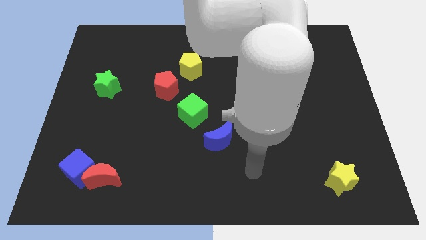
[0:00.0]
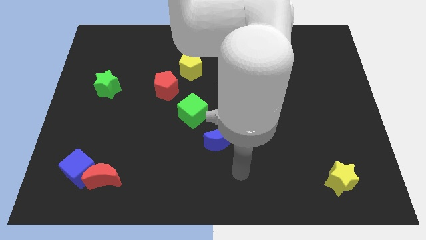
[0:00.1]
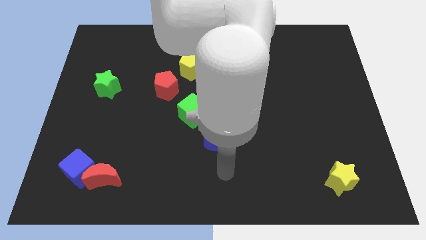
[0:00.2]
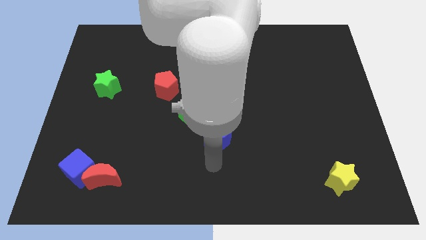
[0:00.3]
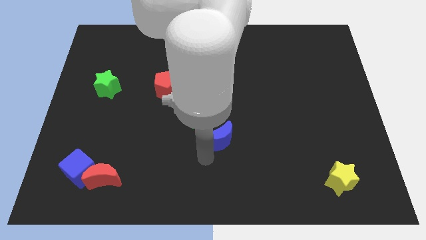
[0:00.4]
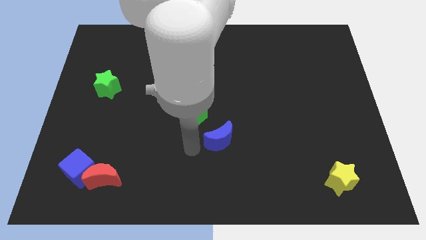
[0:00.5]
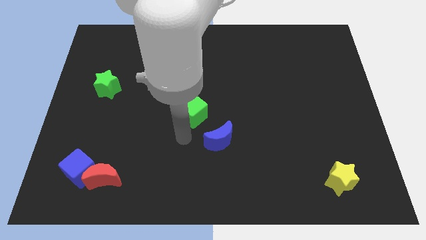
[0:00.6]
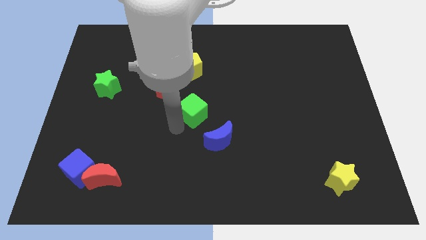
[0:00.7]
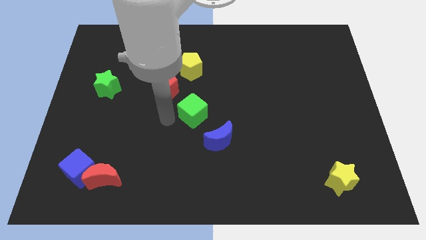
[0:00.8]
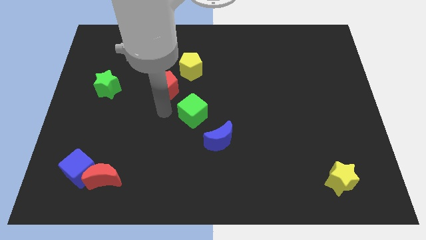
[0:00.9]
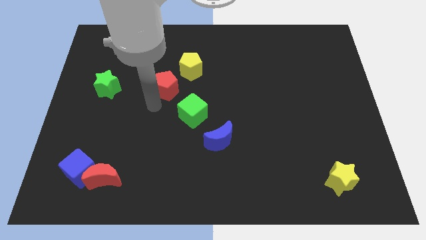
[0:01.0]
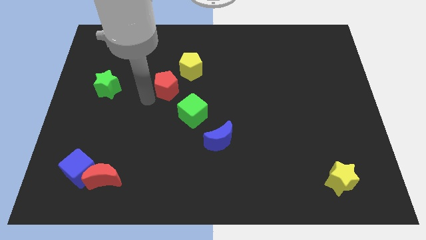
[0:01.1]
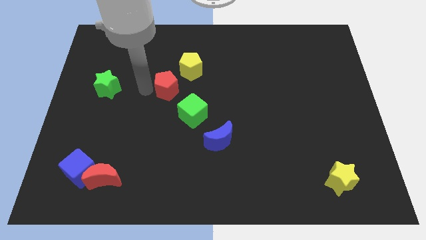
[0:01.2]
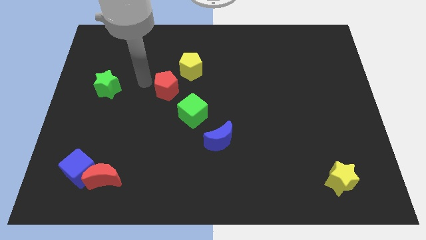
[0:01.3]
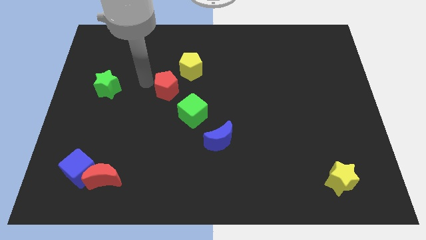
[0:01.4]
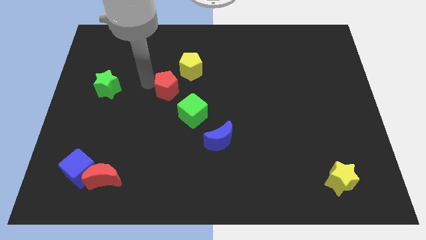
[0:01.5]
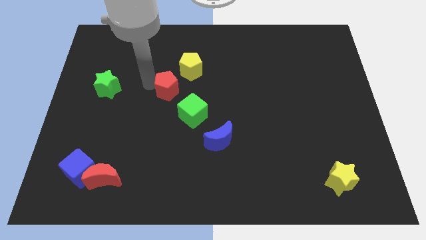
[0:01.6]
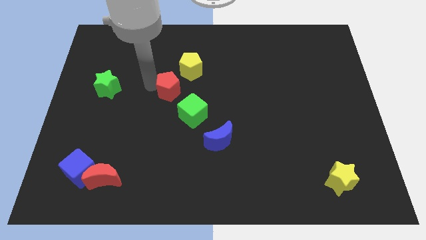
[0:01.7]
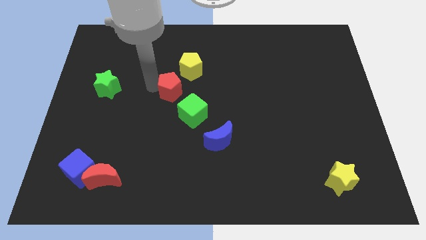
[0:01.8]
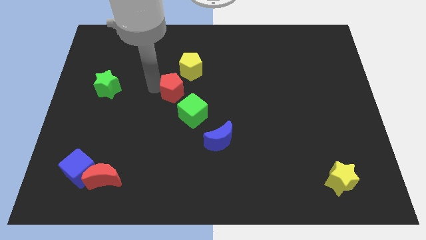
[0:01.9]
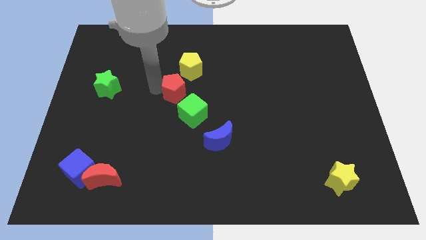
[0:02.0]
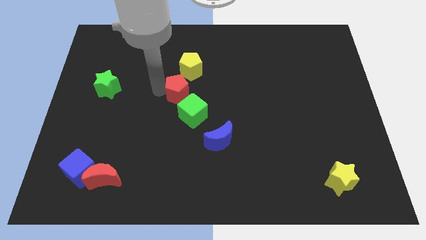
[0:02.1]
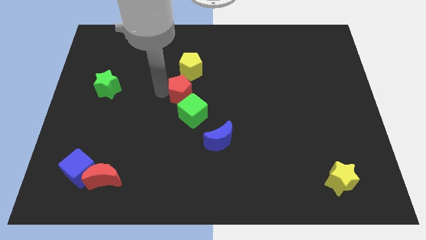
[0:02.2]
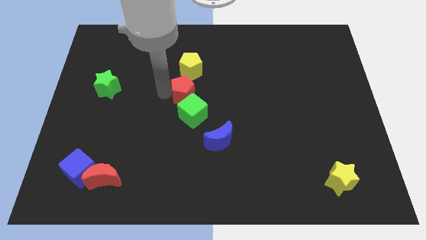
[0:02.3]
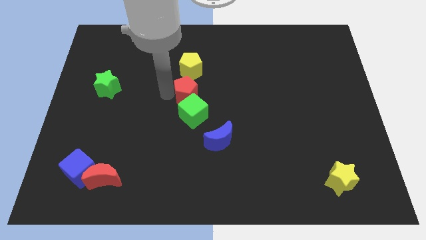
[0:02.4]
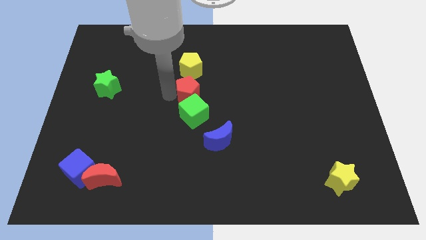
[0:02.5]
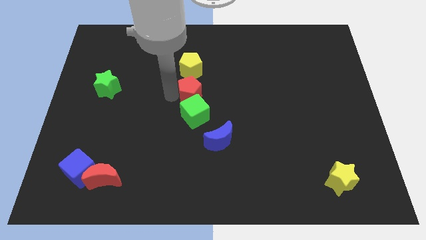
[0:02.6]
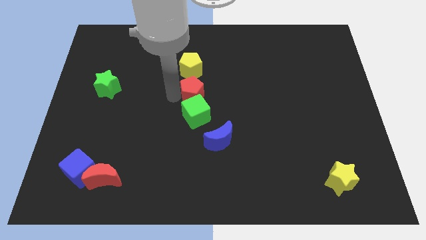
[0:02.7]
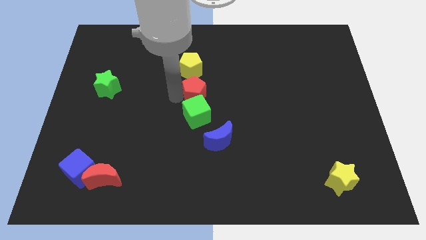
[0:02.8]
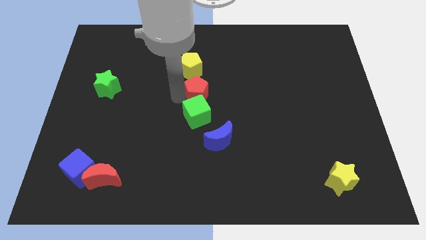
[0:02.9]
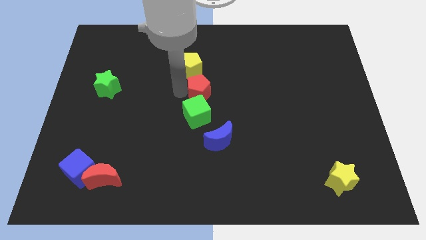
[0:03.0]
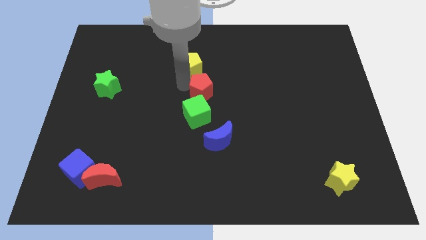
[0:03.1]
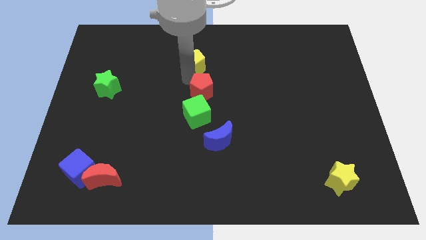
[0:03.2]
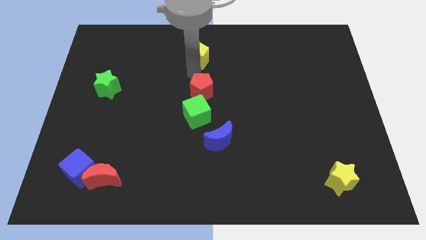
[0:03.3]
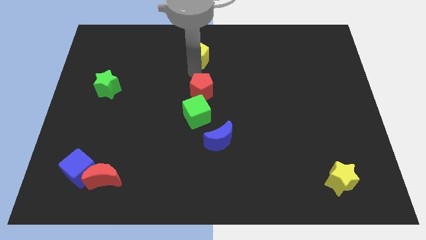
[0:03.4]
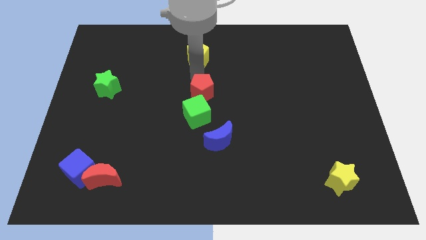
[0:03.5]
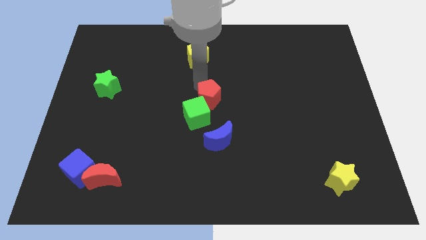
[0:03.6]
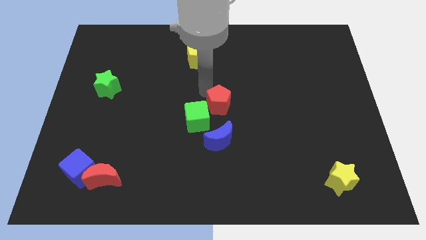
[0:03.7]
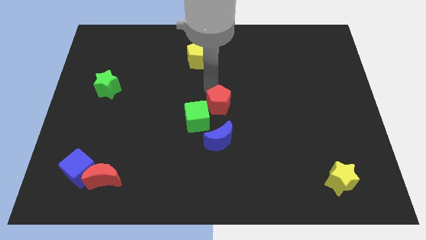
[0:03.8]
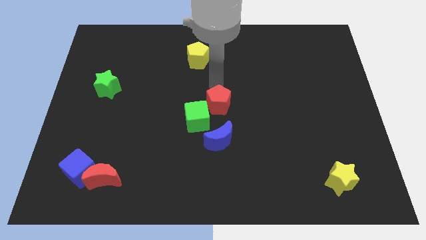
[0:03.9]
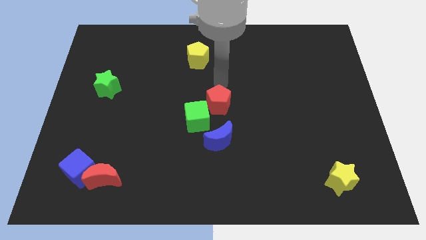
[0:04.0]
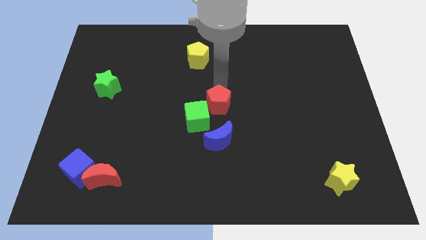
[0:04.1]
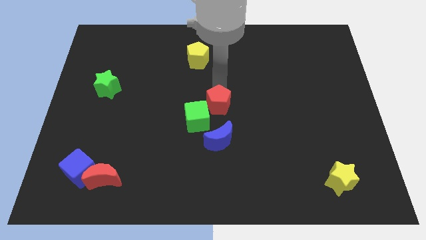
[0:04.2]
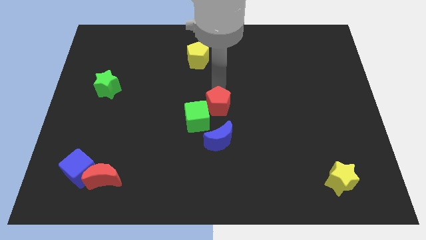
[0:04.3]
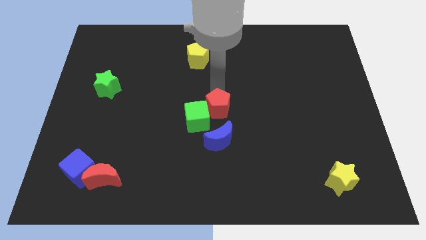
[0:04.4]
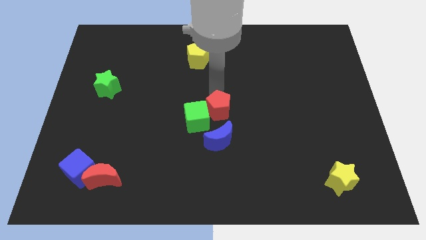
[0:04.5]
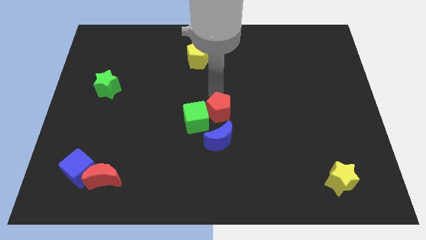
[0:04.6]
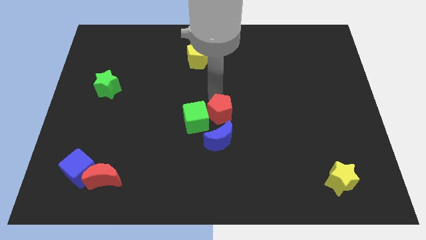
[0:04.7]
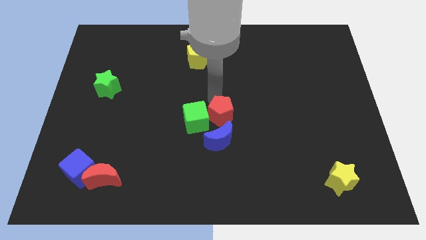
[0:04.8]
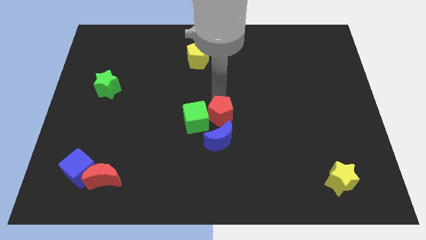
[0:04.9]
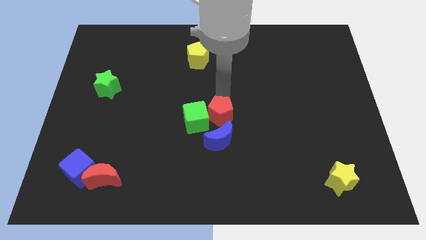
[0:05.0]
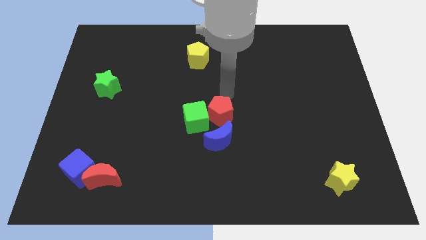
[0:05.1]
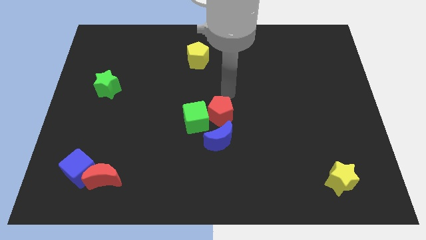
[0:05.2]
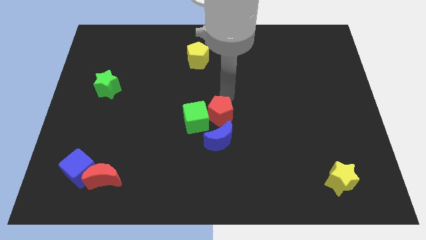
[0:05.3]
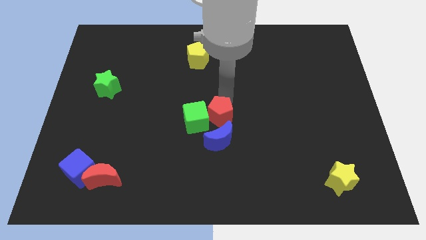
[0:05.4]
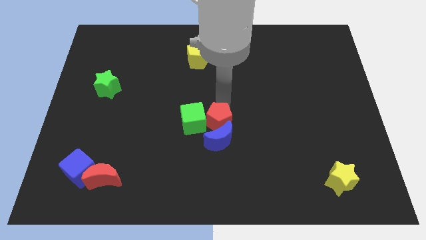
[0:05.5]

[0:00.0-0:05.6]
slide the red pentagon next to the blue moon

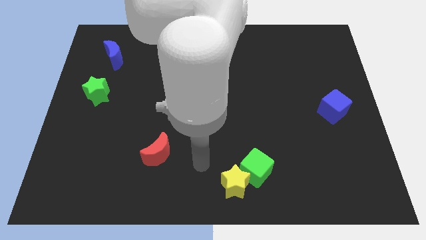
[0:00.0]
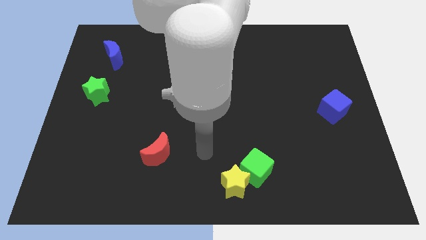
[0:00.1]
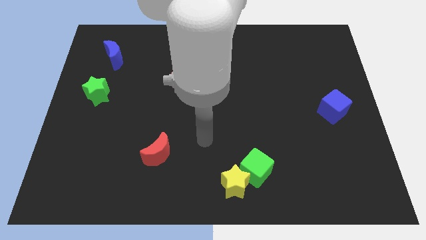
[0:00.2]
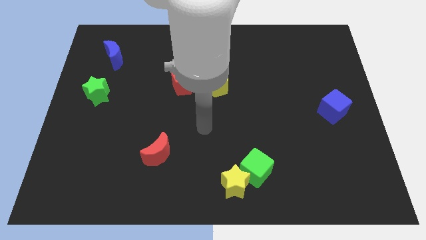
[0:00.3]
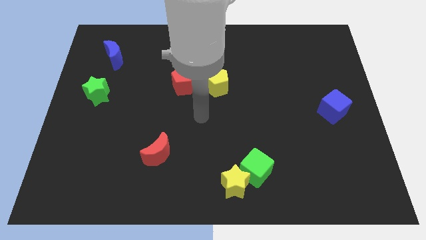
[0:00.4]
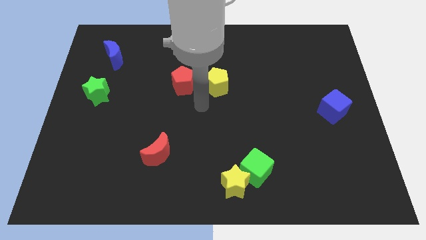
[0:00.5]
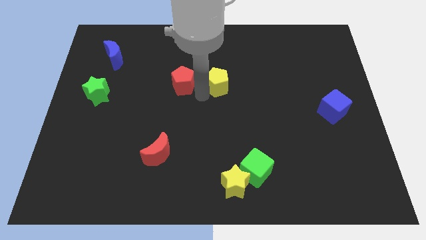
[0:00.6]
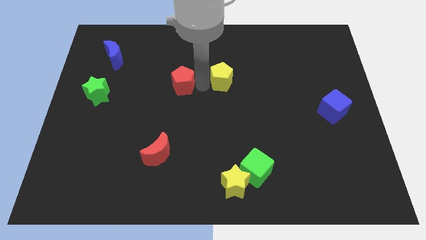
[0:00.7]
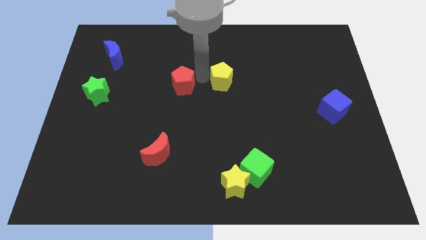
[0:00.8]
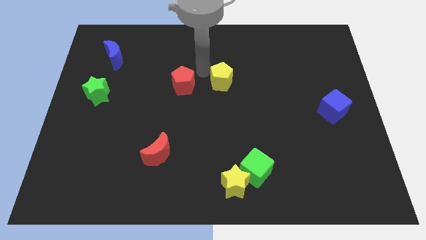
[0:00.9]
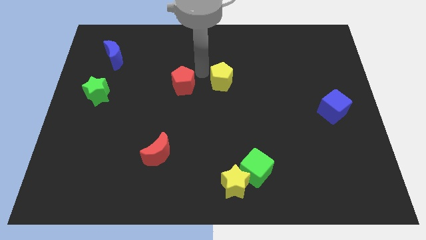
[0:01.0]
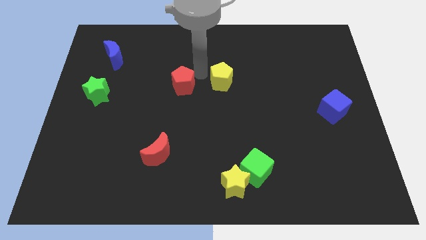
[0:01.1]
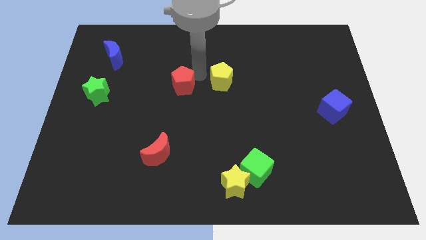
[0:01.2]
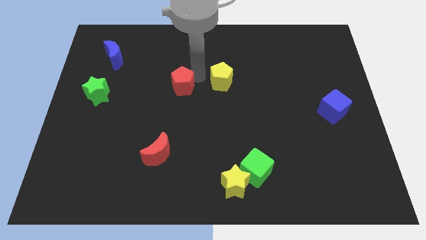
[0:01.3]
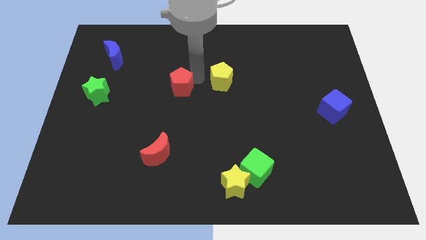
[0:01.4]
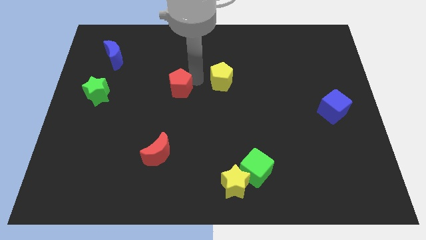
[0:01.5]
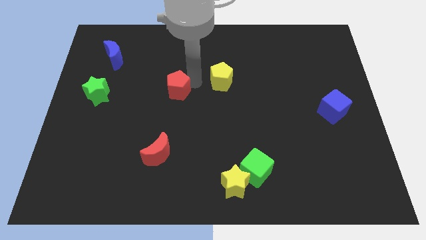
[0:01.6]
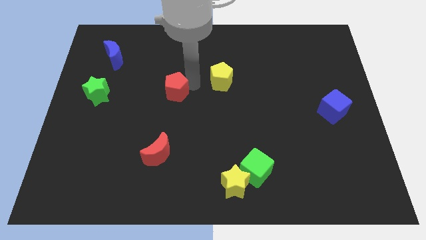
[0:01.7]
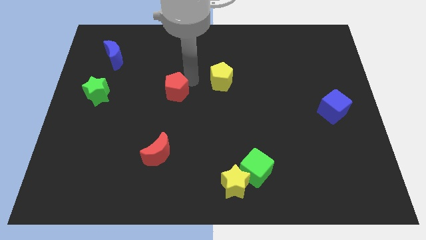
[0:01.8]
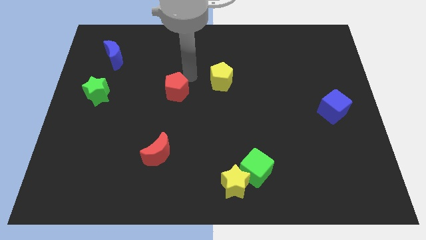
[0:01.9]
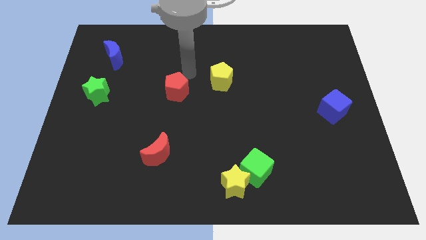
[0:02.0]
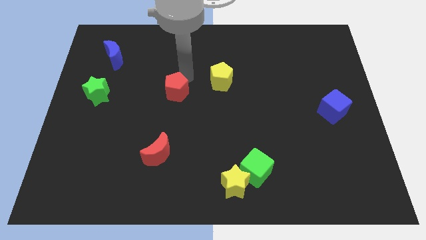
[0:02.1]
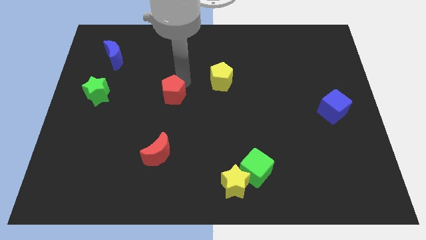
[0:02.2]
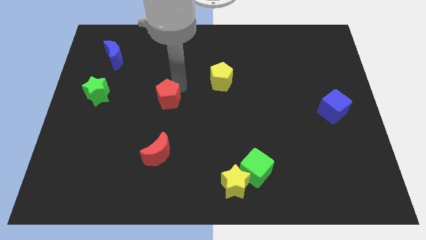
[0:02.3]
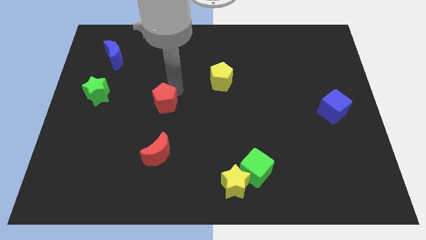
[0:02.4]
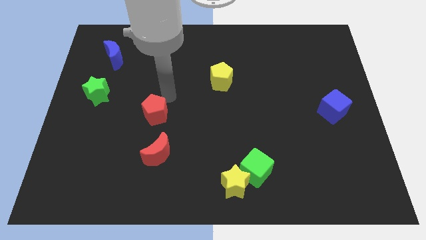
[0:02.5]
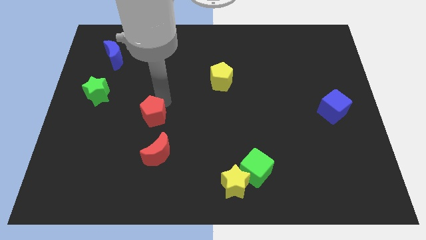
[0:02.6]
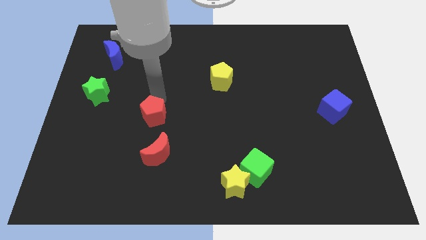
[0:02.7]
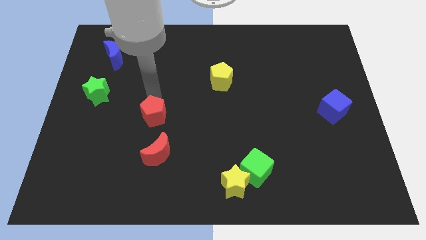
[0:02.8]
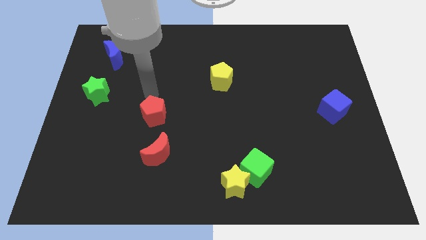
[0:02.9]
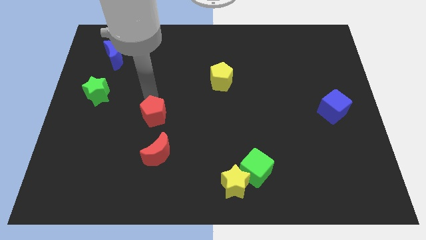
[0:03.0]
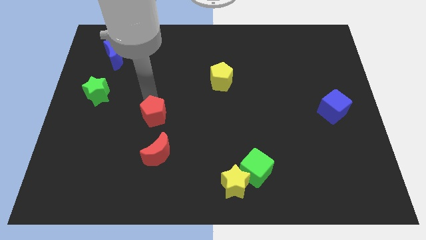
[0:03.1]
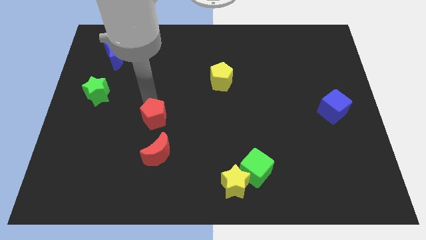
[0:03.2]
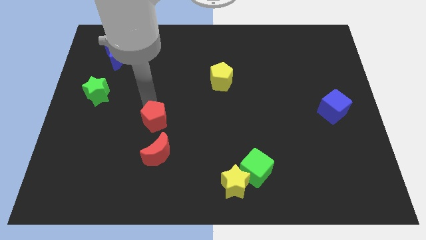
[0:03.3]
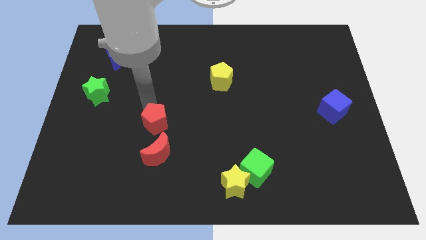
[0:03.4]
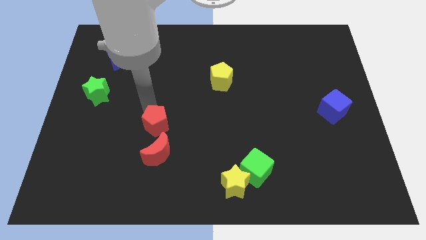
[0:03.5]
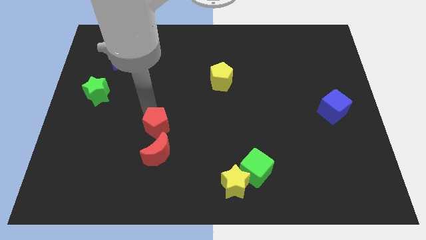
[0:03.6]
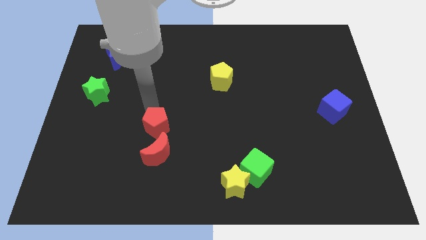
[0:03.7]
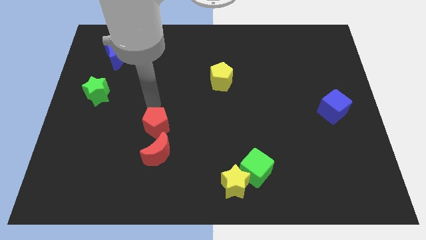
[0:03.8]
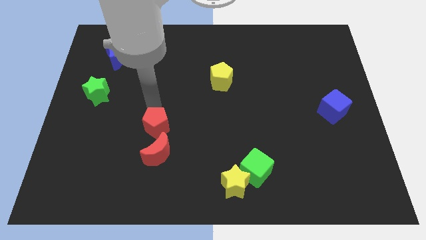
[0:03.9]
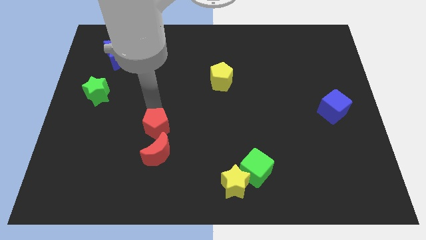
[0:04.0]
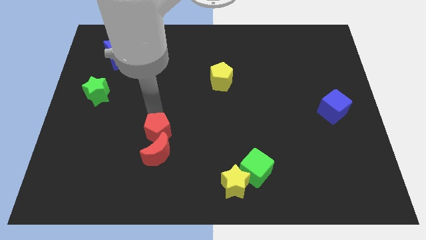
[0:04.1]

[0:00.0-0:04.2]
push the red pentagon towards the red moon
